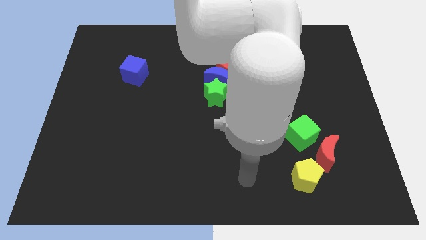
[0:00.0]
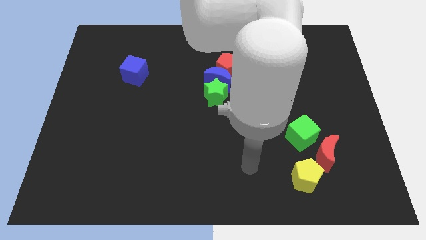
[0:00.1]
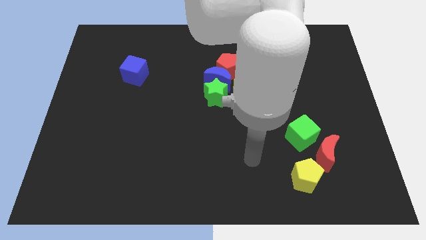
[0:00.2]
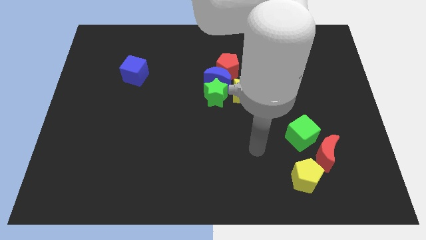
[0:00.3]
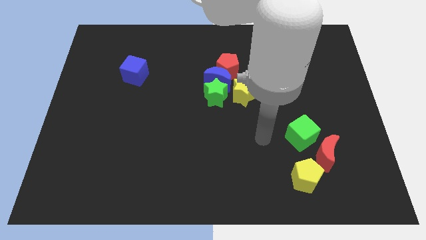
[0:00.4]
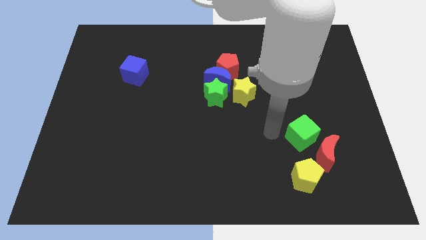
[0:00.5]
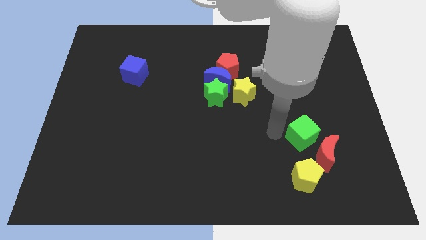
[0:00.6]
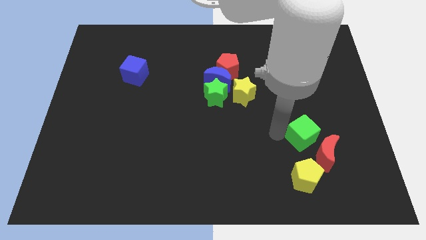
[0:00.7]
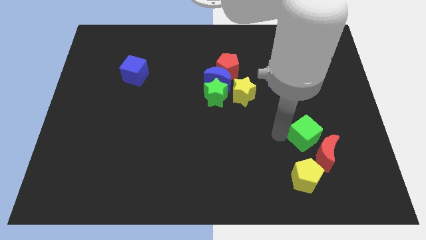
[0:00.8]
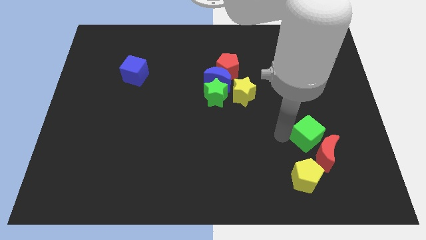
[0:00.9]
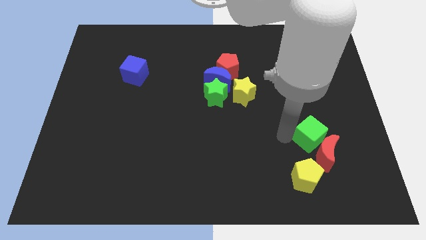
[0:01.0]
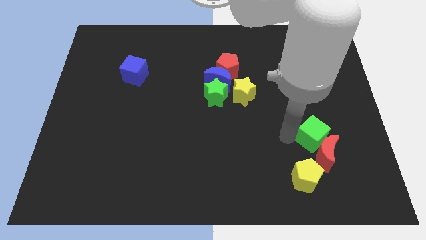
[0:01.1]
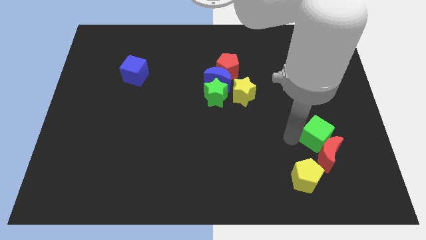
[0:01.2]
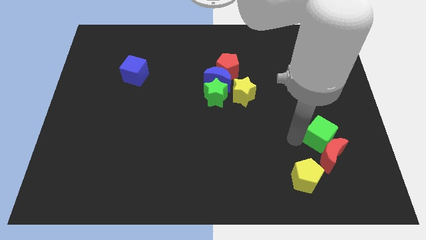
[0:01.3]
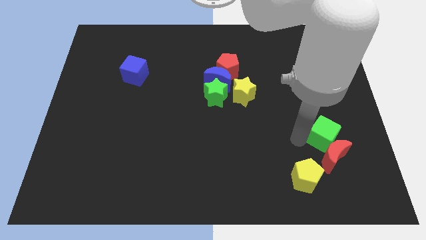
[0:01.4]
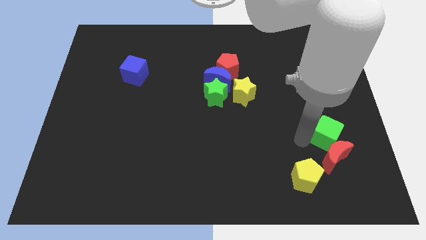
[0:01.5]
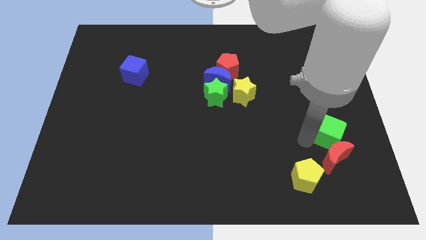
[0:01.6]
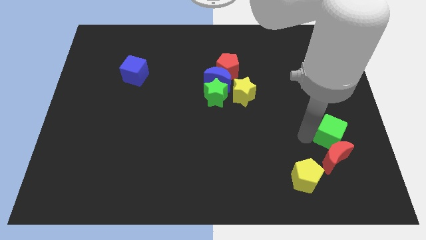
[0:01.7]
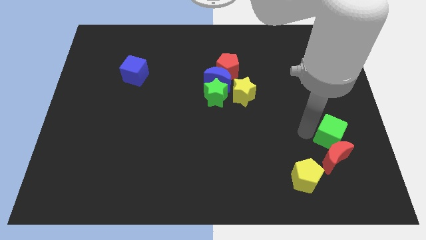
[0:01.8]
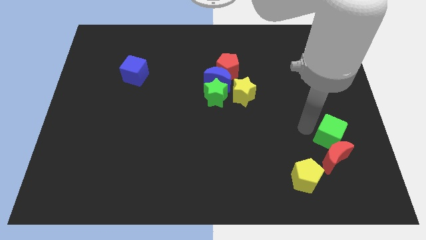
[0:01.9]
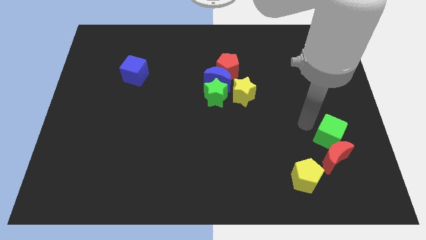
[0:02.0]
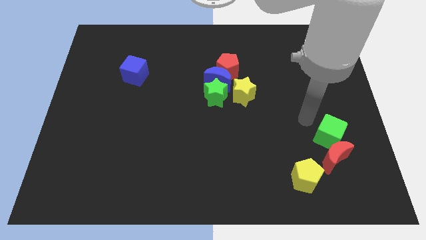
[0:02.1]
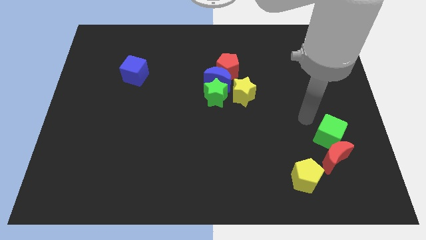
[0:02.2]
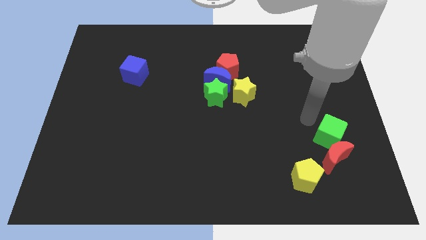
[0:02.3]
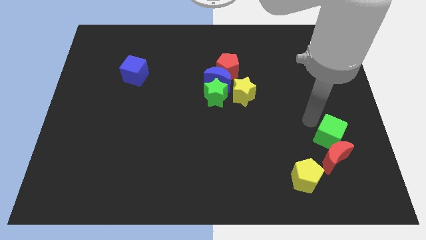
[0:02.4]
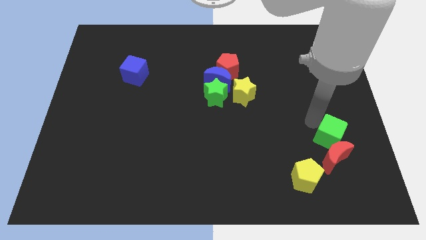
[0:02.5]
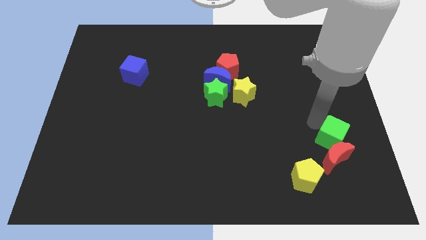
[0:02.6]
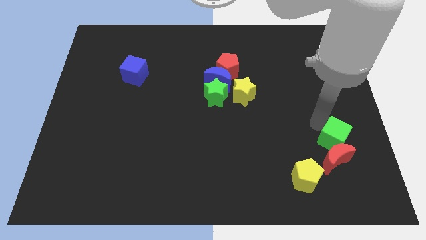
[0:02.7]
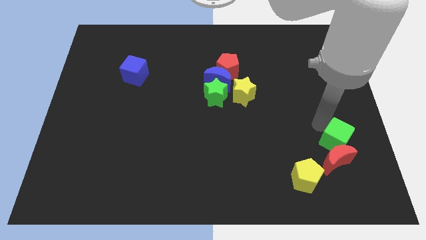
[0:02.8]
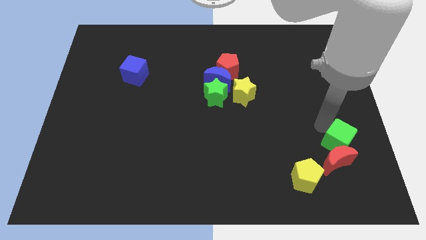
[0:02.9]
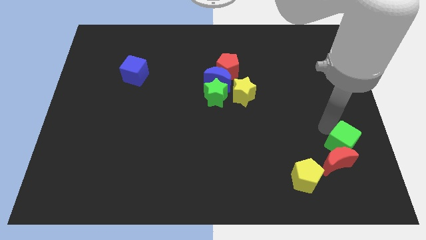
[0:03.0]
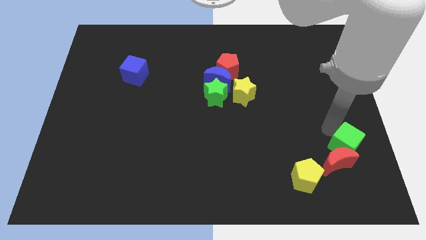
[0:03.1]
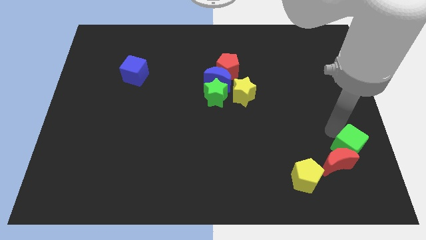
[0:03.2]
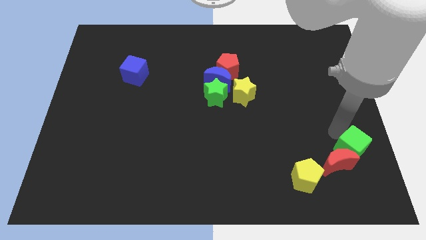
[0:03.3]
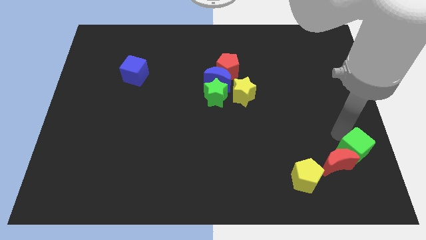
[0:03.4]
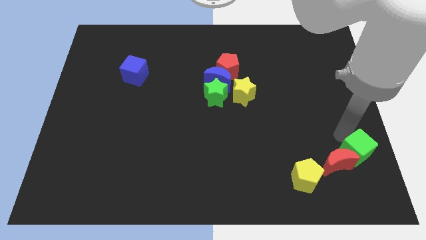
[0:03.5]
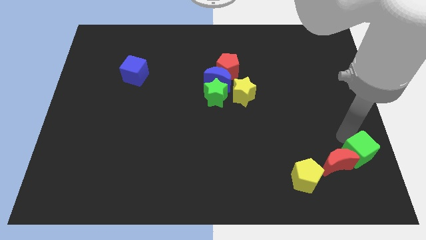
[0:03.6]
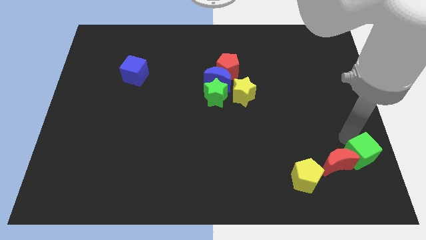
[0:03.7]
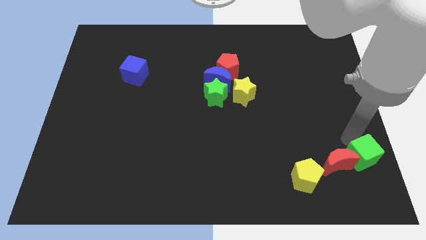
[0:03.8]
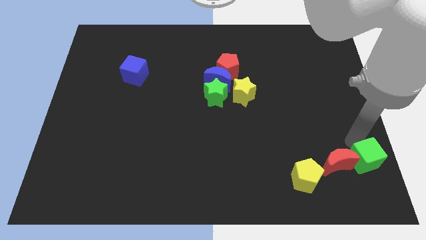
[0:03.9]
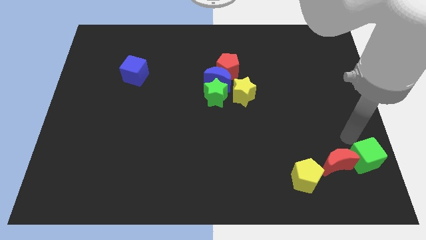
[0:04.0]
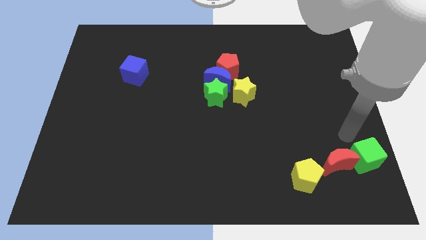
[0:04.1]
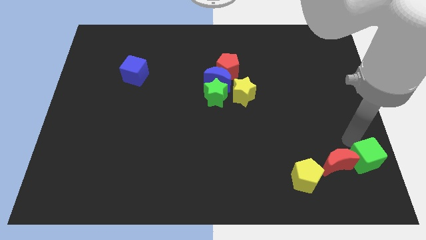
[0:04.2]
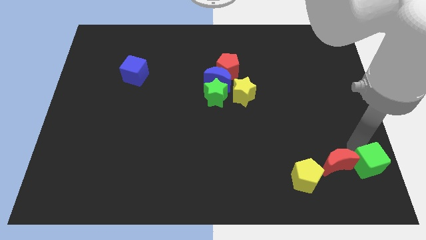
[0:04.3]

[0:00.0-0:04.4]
put the green cube to the bottom right of the board

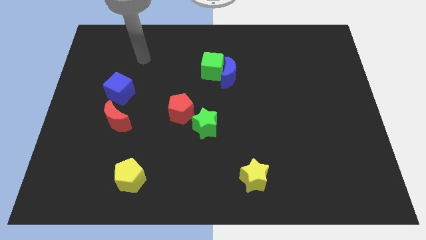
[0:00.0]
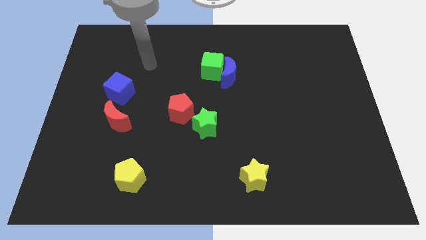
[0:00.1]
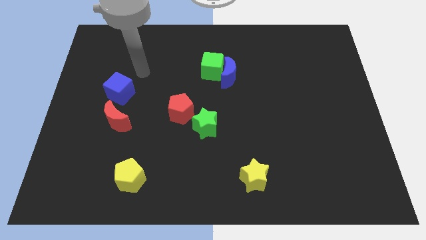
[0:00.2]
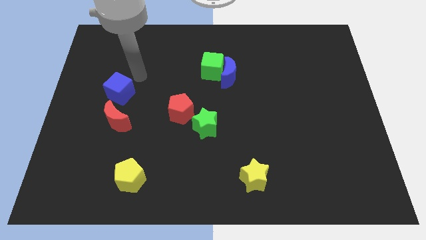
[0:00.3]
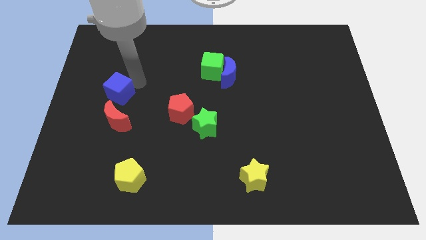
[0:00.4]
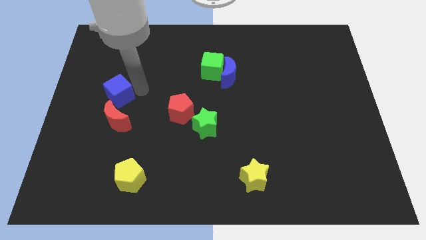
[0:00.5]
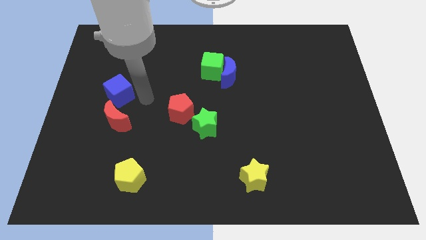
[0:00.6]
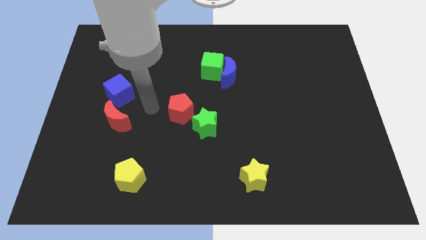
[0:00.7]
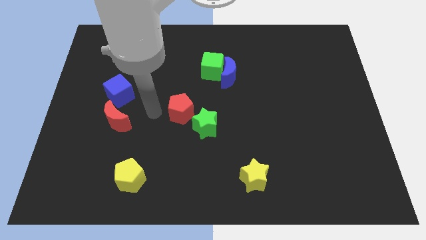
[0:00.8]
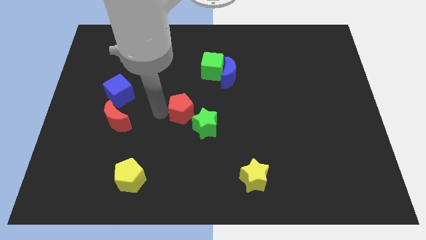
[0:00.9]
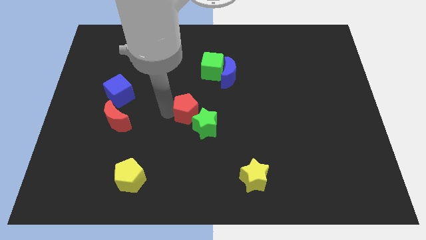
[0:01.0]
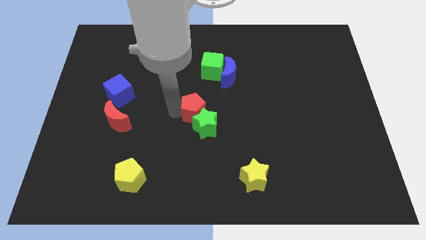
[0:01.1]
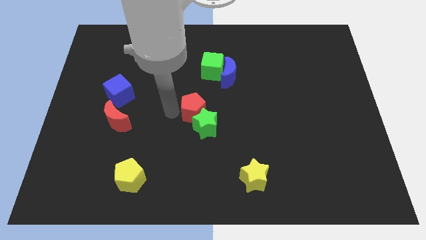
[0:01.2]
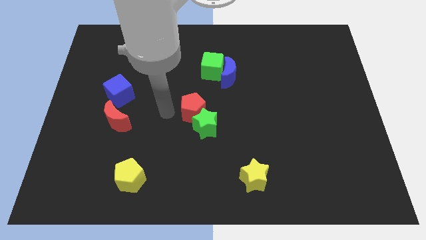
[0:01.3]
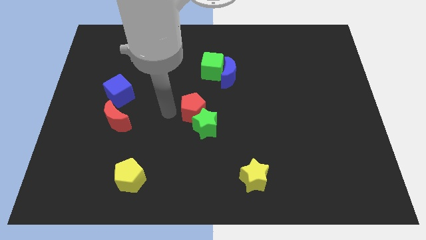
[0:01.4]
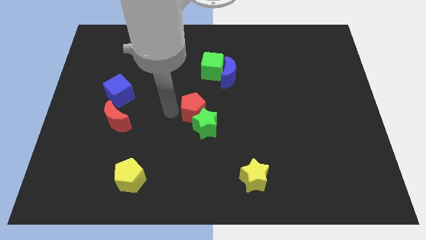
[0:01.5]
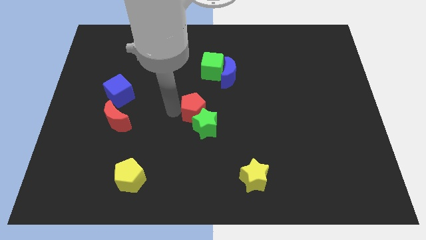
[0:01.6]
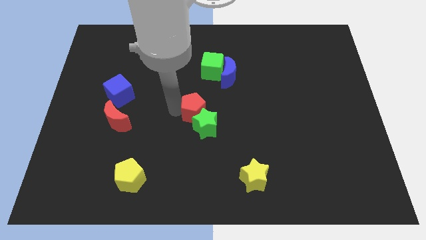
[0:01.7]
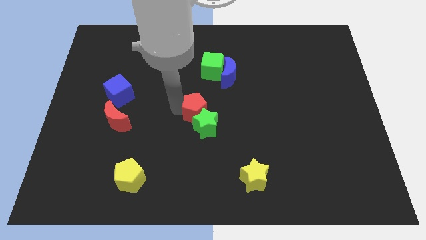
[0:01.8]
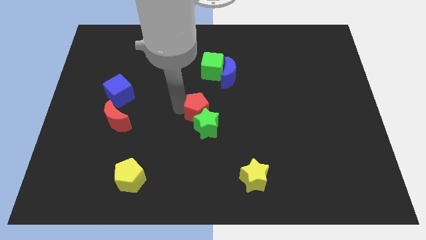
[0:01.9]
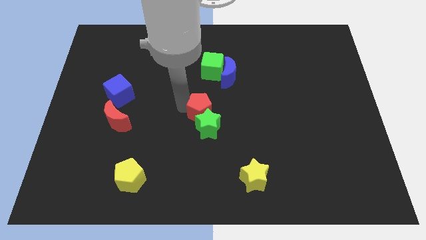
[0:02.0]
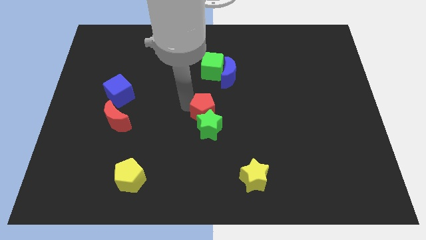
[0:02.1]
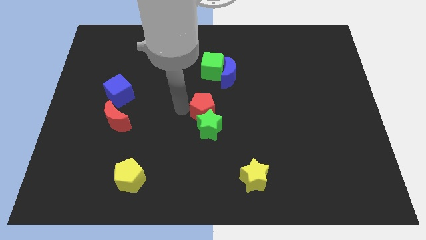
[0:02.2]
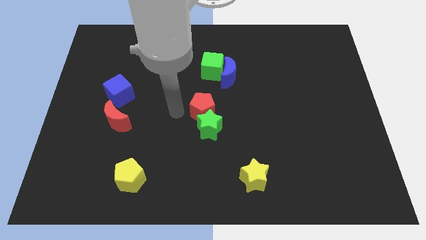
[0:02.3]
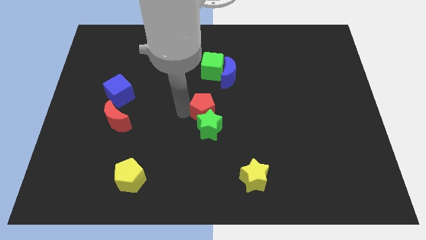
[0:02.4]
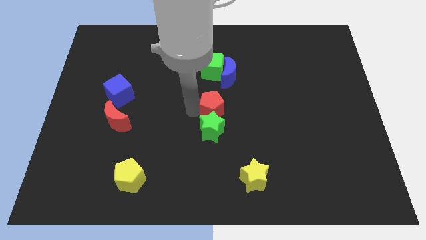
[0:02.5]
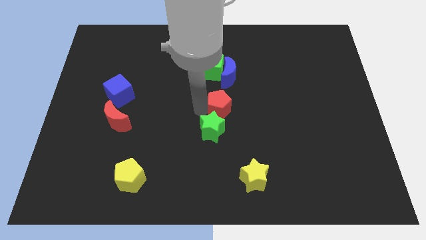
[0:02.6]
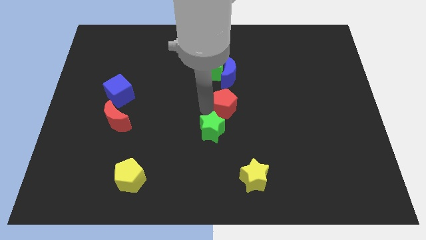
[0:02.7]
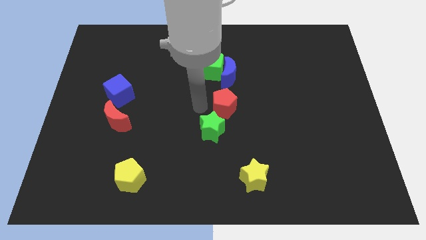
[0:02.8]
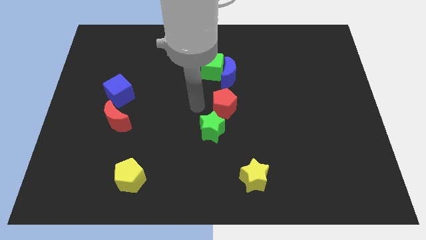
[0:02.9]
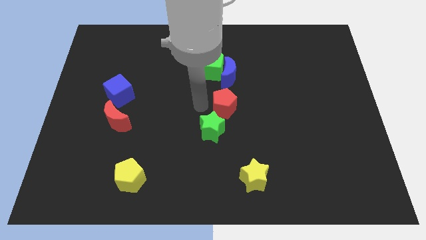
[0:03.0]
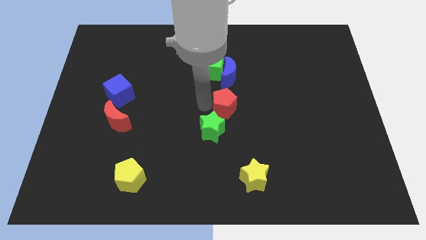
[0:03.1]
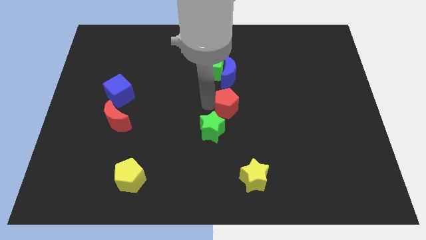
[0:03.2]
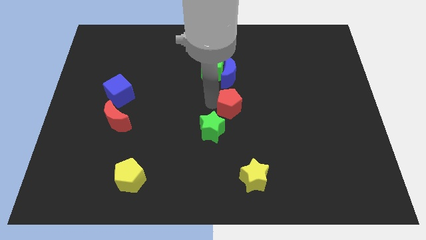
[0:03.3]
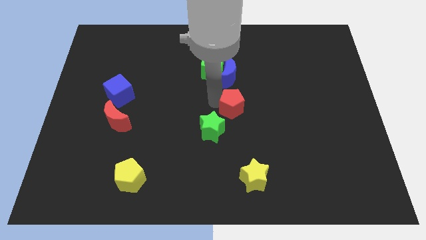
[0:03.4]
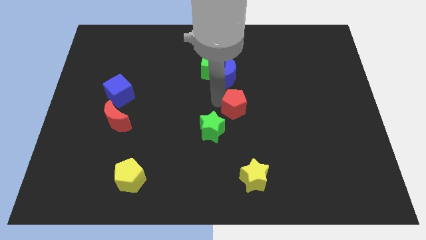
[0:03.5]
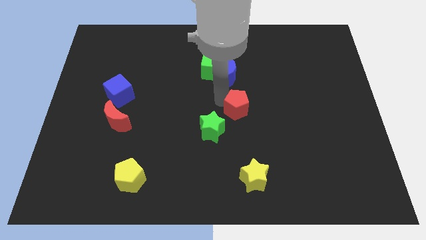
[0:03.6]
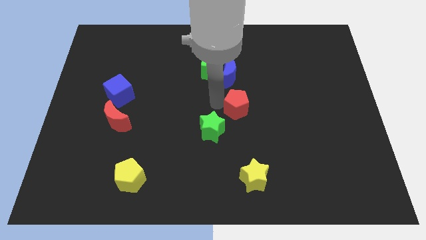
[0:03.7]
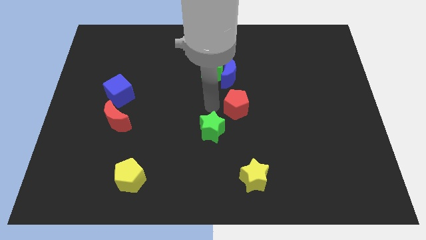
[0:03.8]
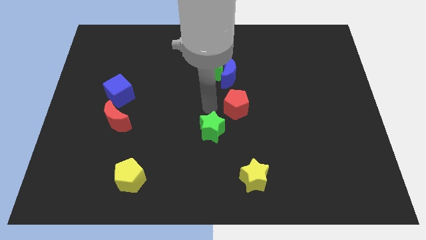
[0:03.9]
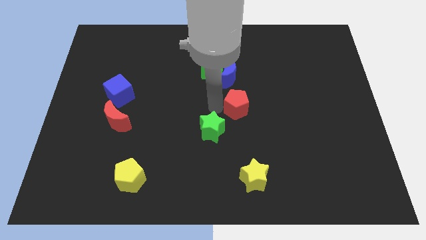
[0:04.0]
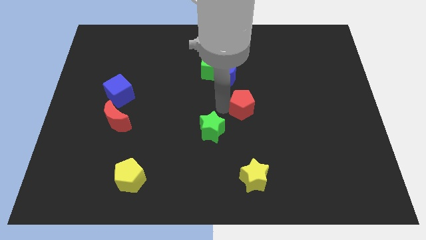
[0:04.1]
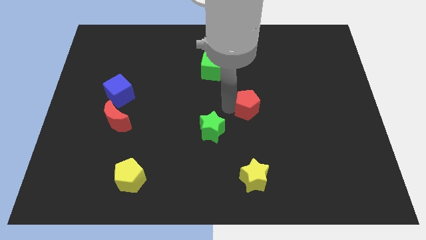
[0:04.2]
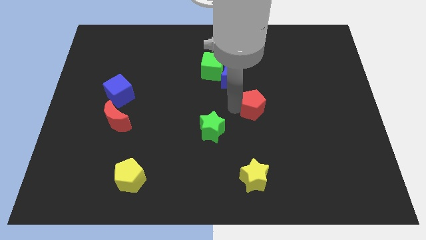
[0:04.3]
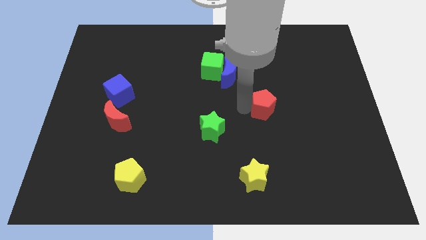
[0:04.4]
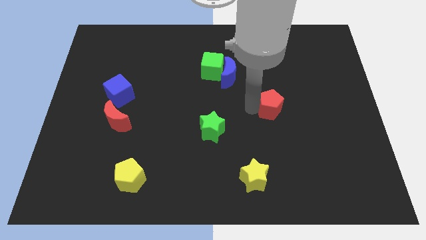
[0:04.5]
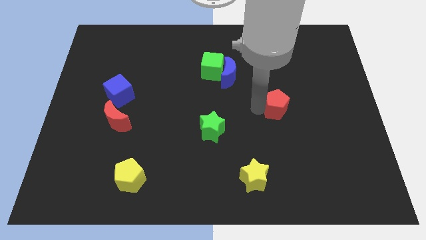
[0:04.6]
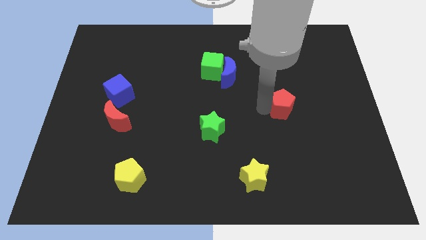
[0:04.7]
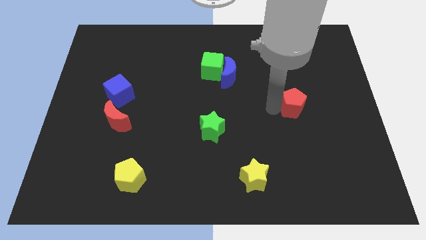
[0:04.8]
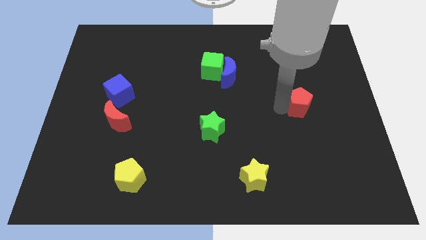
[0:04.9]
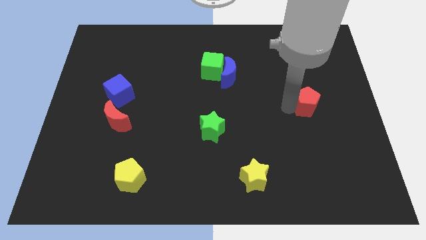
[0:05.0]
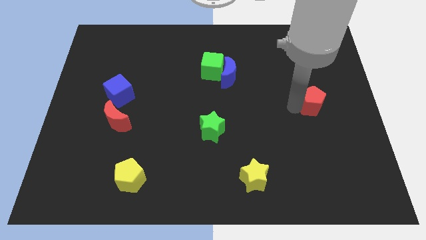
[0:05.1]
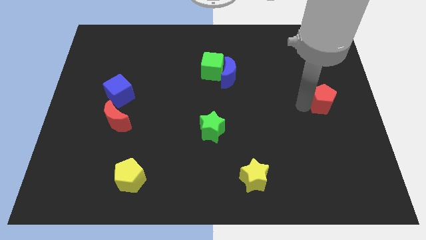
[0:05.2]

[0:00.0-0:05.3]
put the red pentagon to the center right
